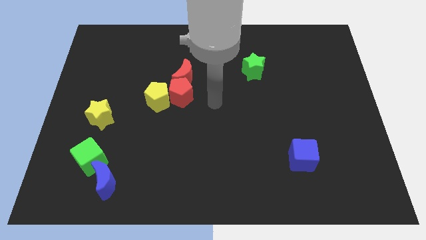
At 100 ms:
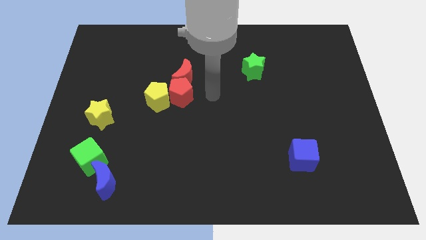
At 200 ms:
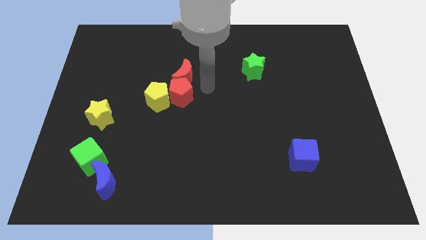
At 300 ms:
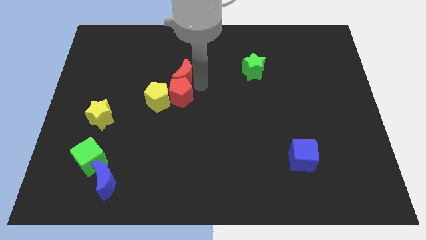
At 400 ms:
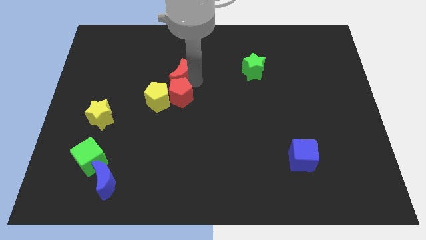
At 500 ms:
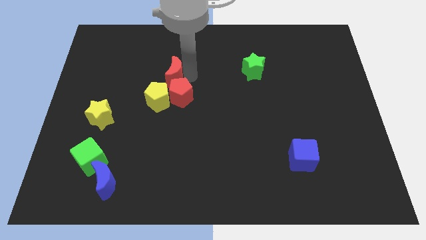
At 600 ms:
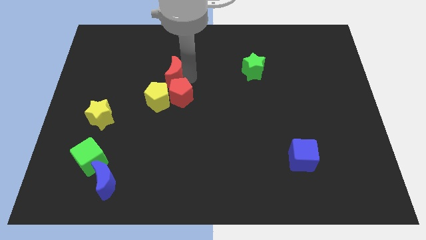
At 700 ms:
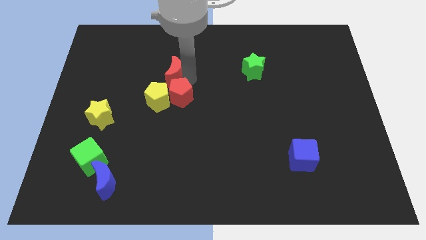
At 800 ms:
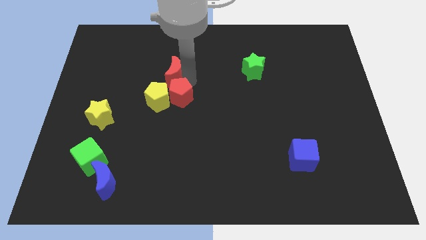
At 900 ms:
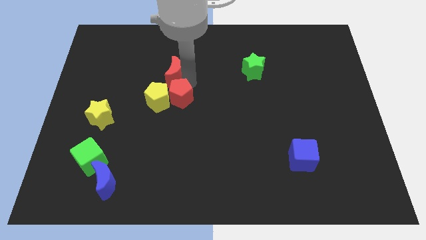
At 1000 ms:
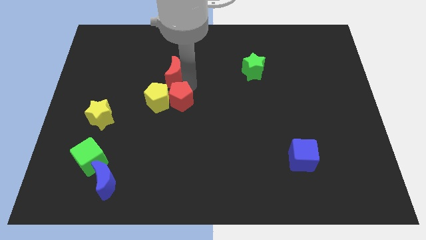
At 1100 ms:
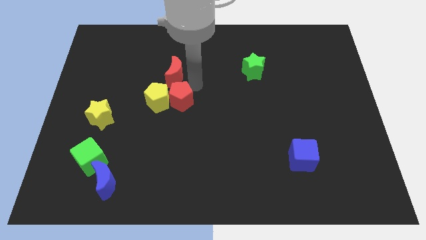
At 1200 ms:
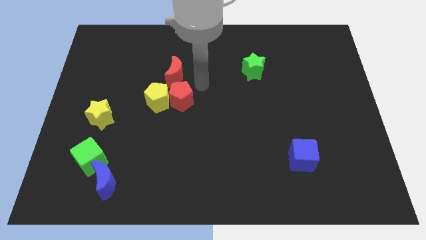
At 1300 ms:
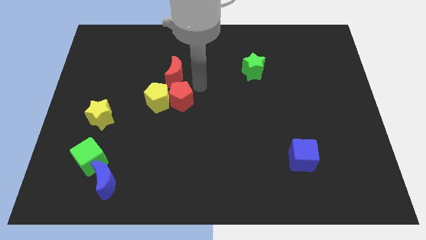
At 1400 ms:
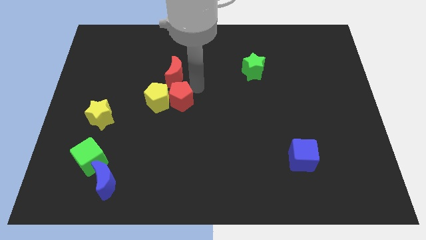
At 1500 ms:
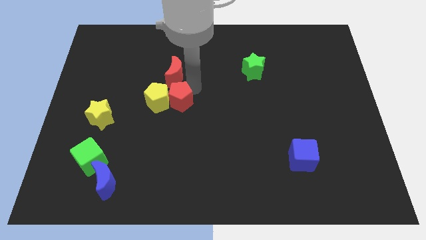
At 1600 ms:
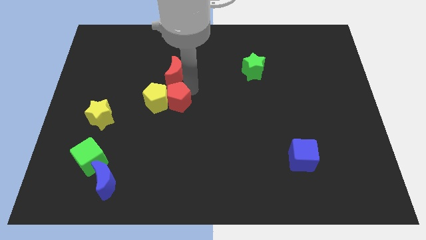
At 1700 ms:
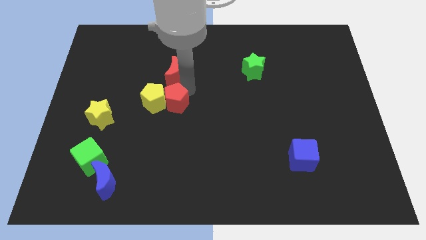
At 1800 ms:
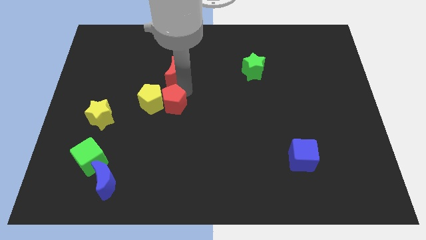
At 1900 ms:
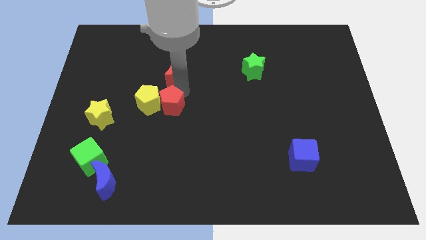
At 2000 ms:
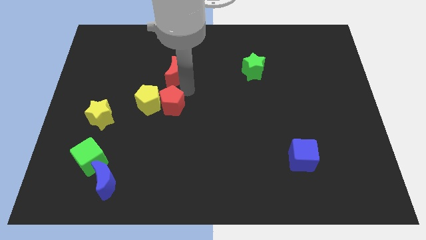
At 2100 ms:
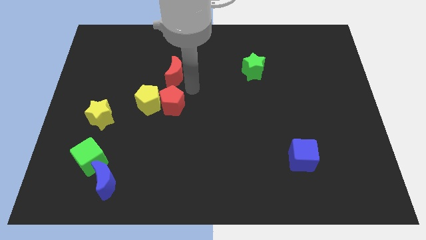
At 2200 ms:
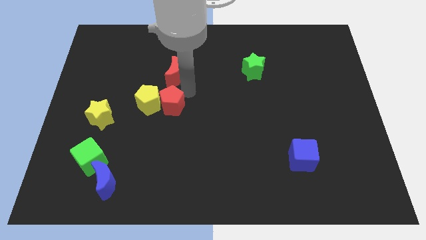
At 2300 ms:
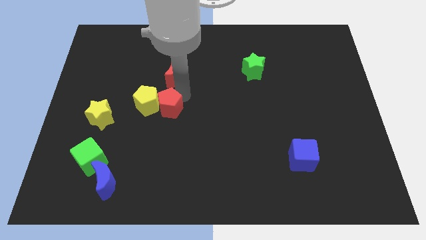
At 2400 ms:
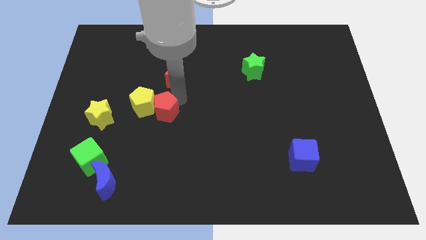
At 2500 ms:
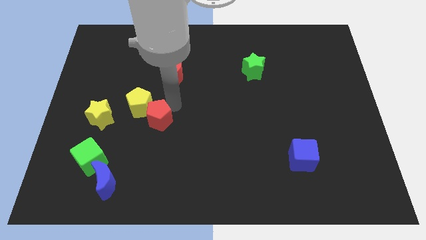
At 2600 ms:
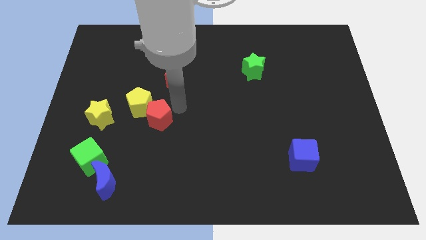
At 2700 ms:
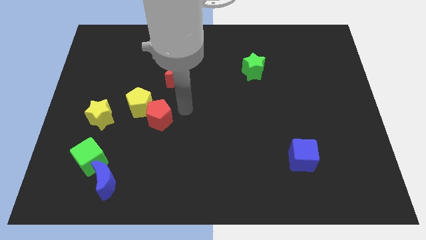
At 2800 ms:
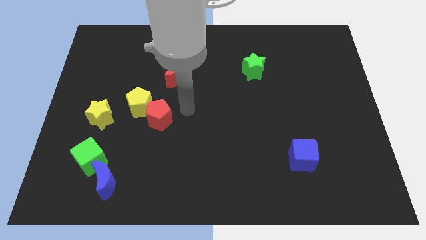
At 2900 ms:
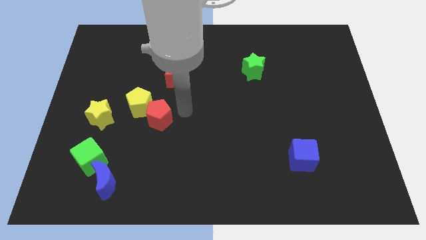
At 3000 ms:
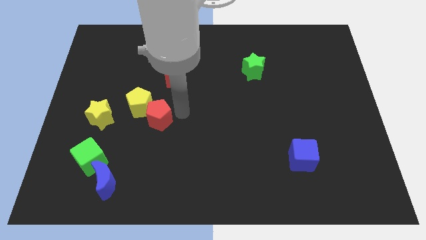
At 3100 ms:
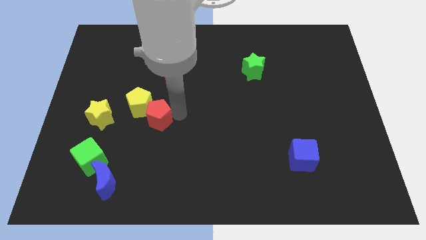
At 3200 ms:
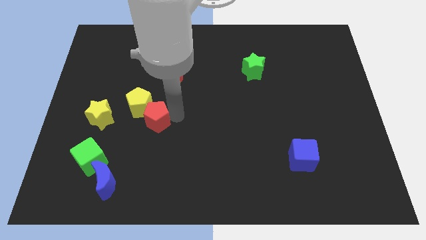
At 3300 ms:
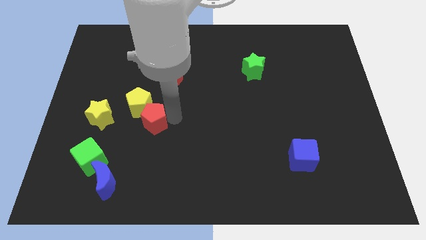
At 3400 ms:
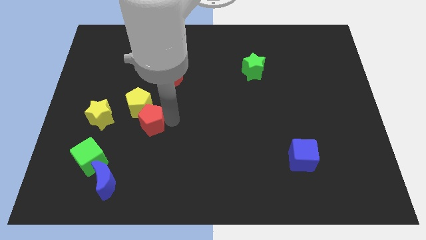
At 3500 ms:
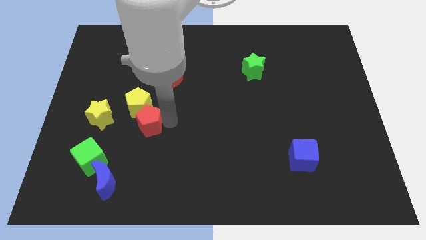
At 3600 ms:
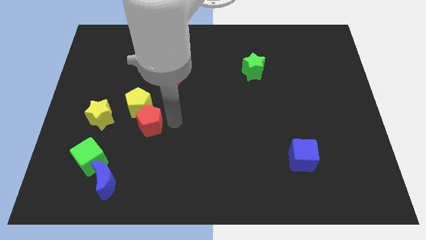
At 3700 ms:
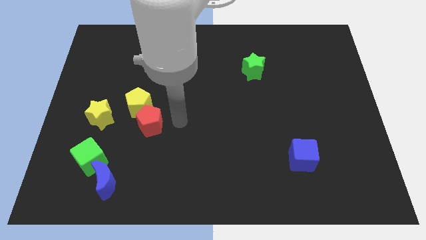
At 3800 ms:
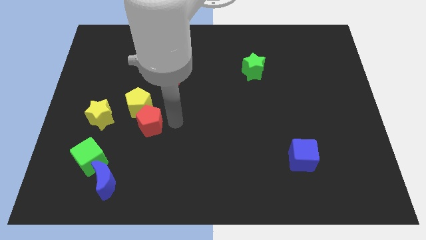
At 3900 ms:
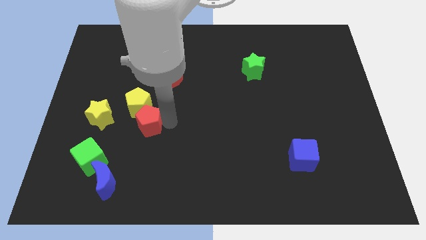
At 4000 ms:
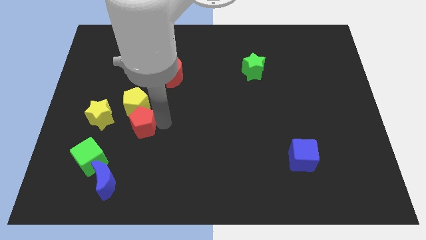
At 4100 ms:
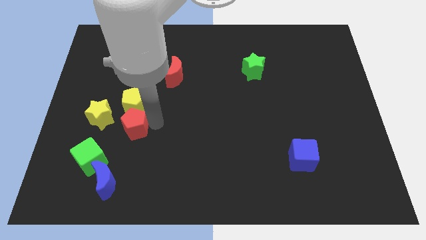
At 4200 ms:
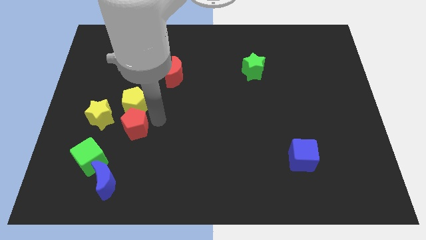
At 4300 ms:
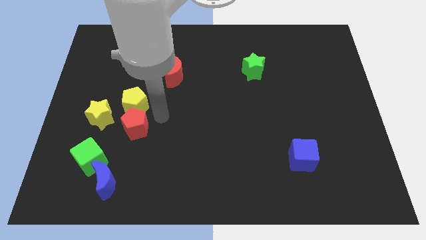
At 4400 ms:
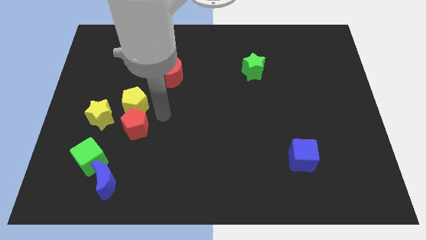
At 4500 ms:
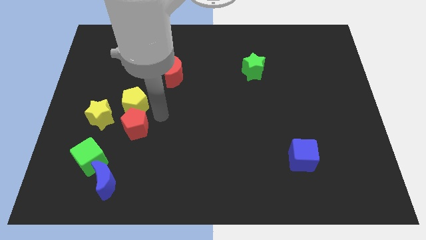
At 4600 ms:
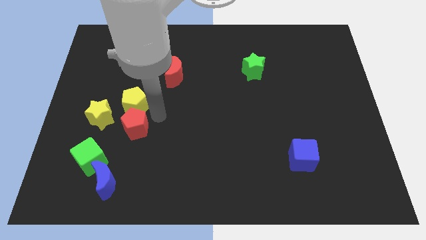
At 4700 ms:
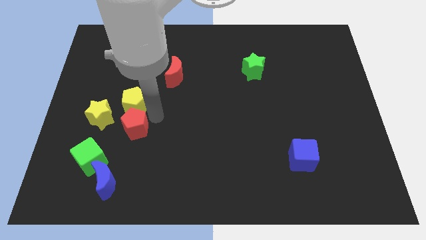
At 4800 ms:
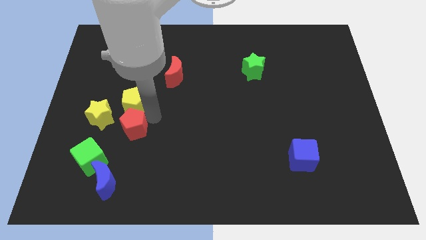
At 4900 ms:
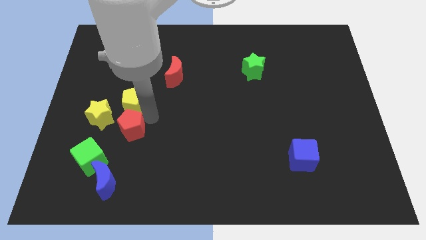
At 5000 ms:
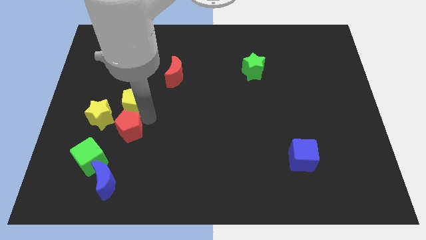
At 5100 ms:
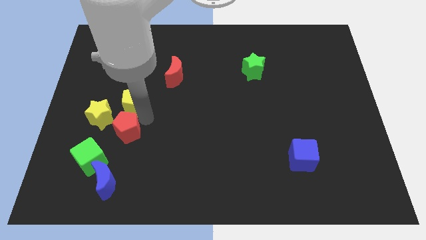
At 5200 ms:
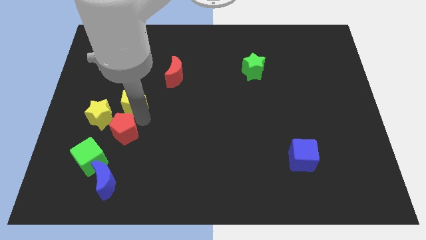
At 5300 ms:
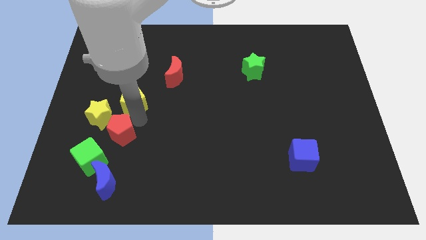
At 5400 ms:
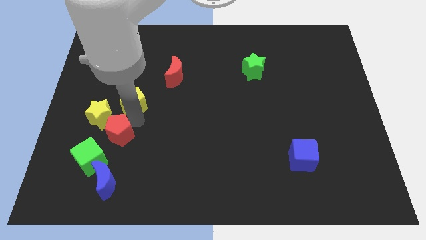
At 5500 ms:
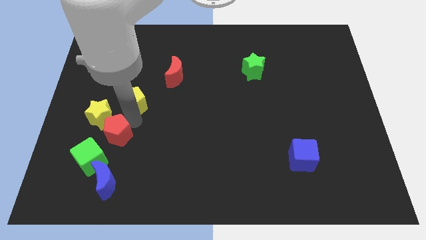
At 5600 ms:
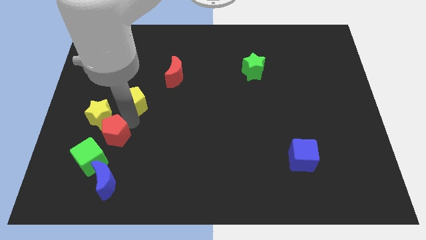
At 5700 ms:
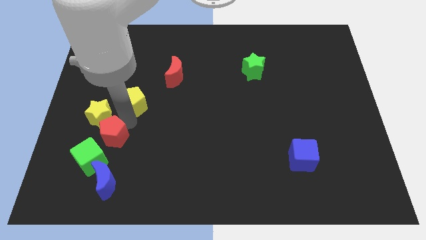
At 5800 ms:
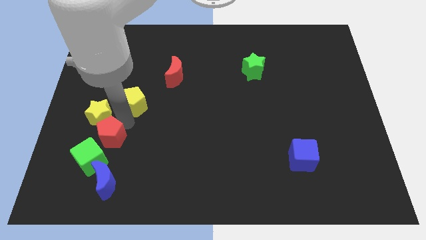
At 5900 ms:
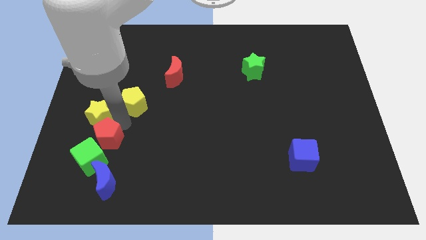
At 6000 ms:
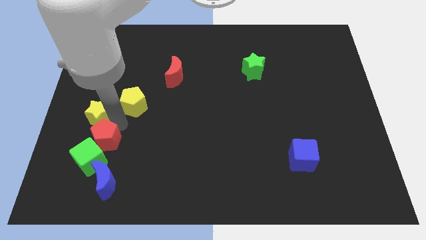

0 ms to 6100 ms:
put the red pentagon close to the green cube

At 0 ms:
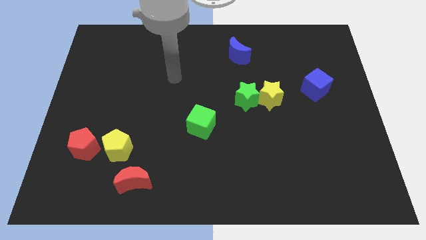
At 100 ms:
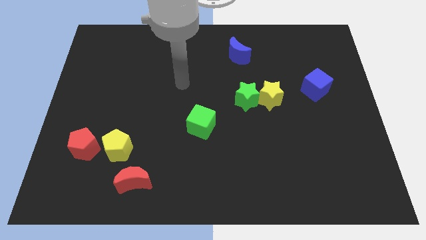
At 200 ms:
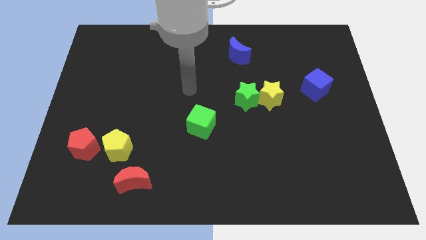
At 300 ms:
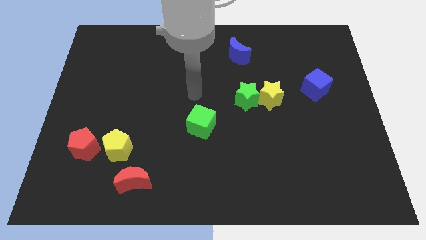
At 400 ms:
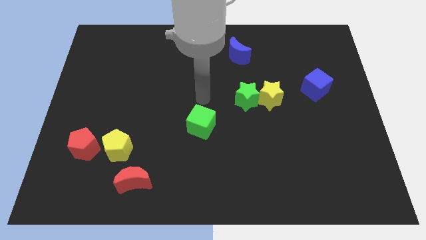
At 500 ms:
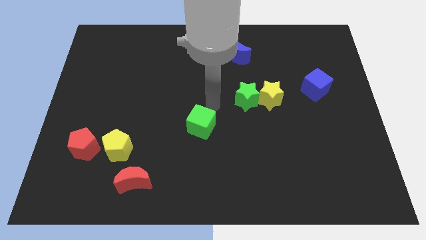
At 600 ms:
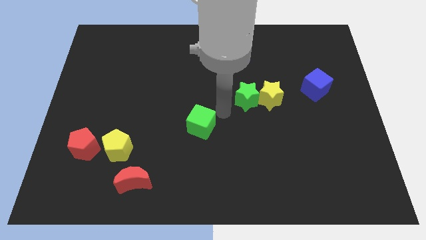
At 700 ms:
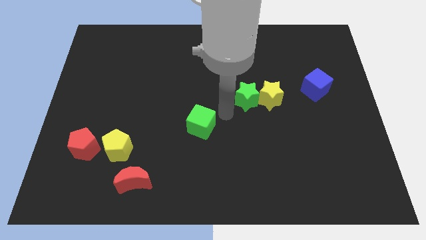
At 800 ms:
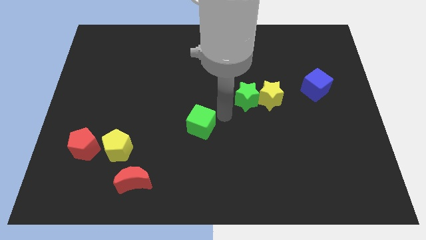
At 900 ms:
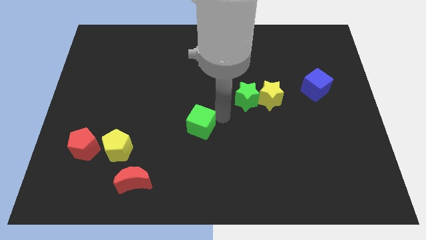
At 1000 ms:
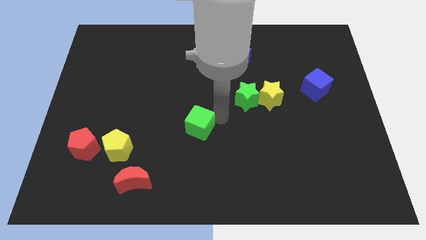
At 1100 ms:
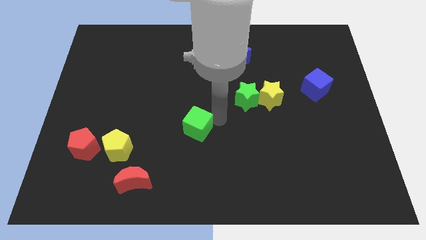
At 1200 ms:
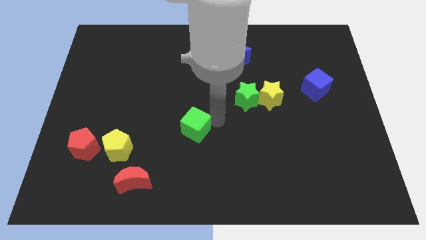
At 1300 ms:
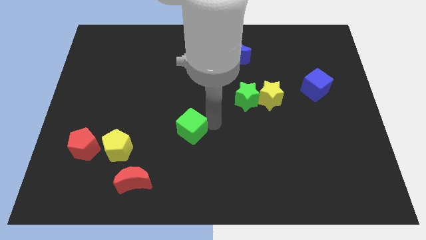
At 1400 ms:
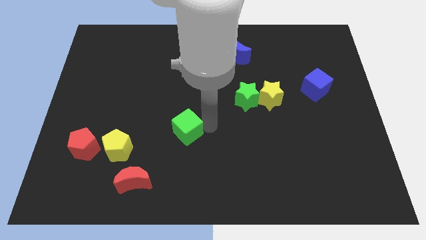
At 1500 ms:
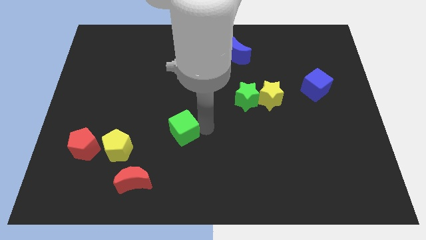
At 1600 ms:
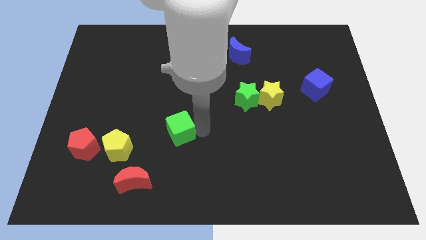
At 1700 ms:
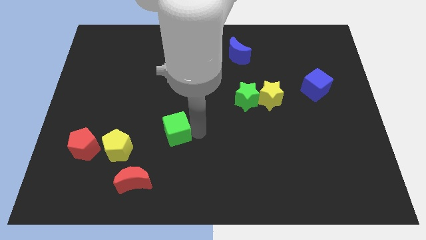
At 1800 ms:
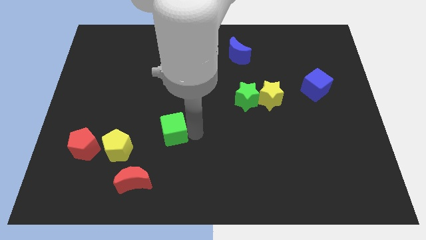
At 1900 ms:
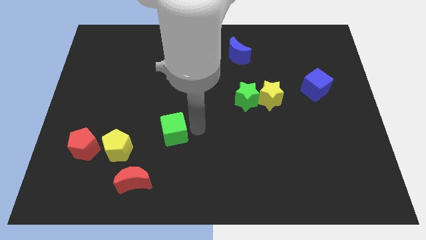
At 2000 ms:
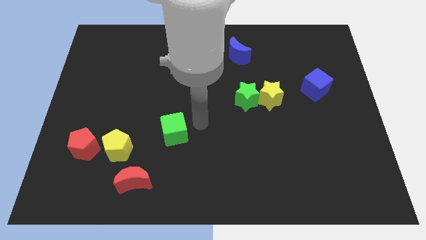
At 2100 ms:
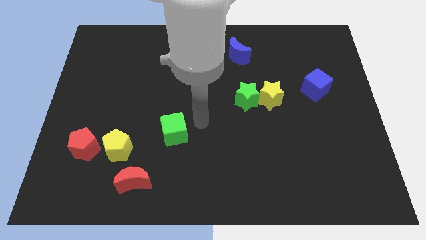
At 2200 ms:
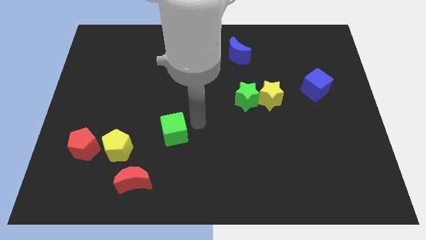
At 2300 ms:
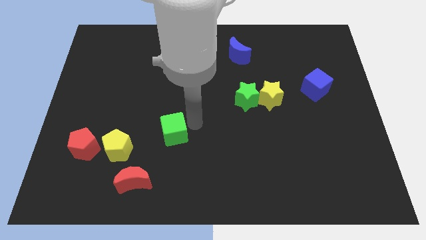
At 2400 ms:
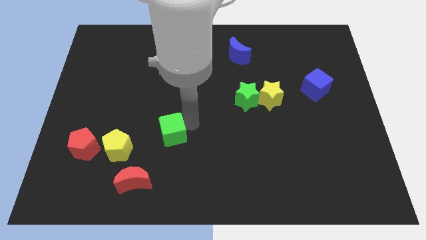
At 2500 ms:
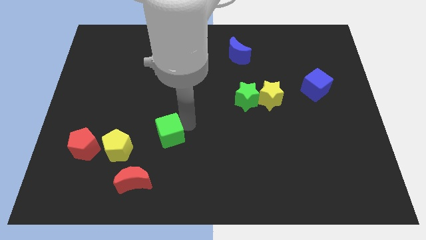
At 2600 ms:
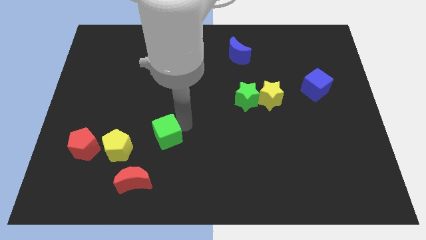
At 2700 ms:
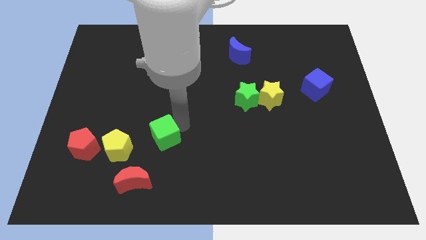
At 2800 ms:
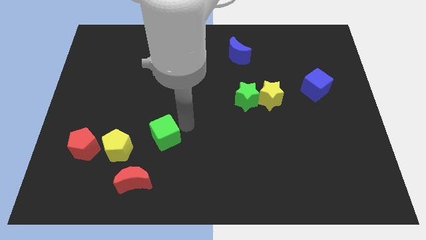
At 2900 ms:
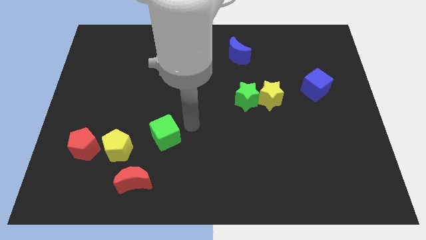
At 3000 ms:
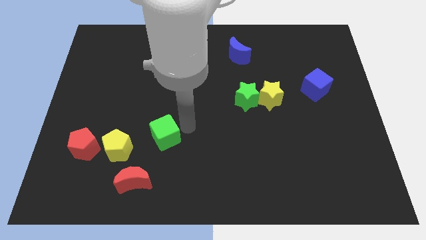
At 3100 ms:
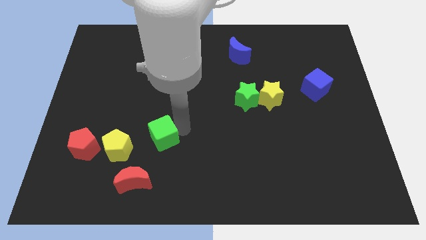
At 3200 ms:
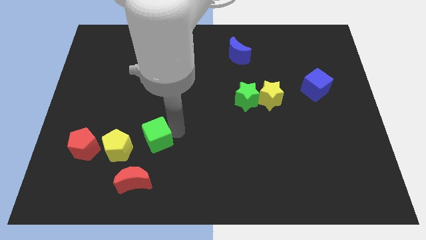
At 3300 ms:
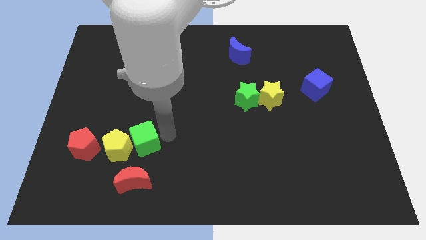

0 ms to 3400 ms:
push the green cube towards the yellow pentagon
